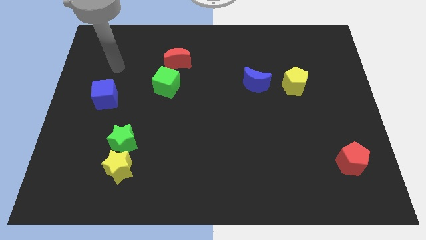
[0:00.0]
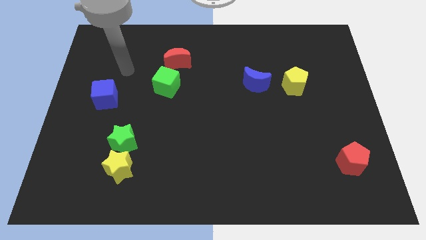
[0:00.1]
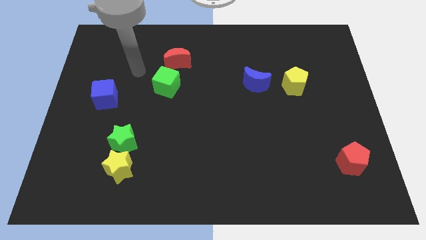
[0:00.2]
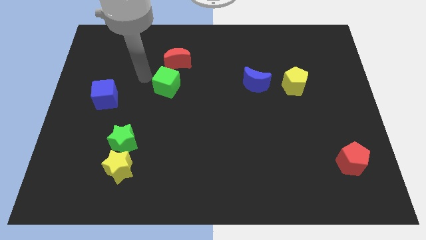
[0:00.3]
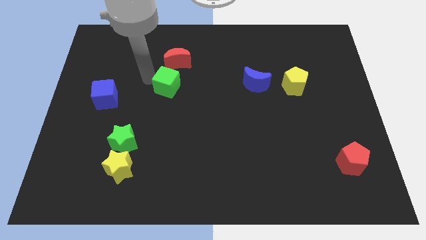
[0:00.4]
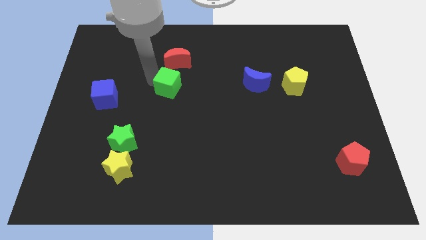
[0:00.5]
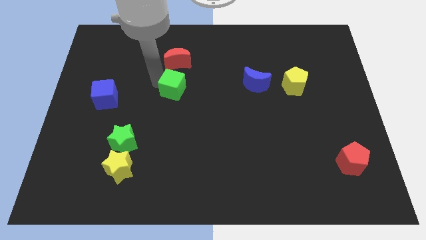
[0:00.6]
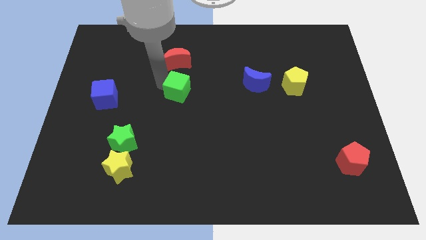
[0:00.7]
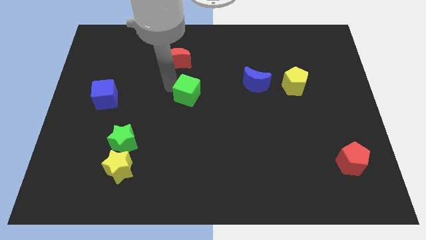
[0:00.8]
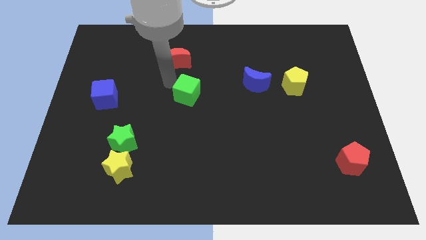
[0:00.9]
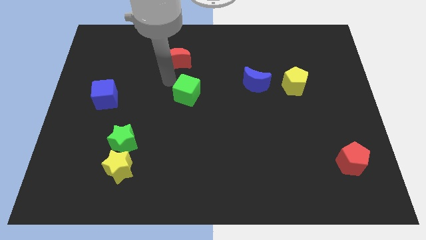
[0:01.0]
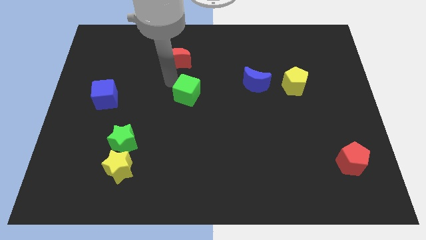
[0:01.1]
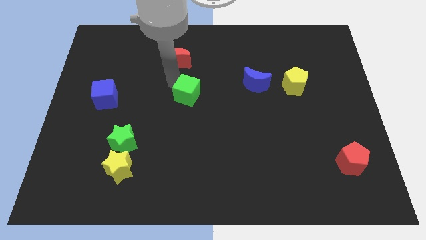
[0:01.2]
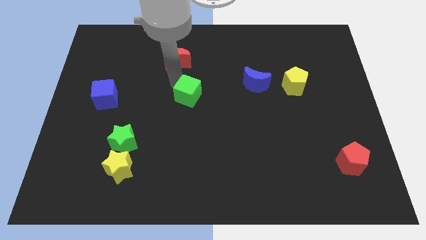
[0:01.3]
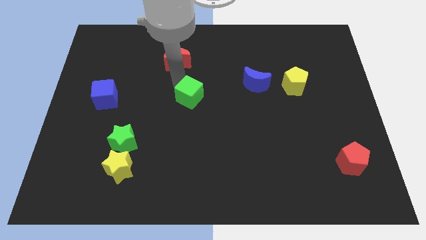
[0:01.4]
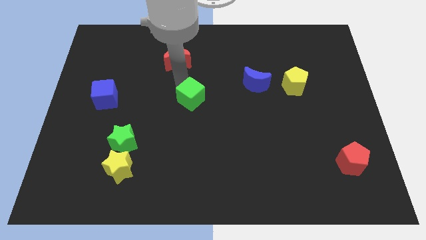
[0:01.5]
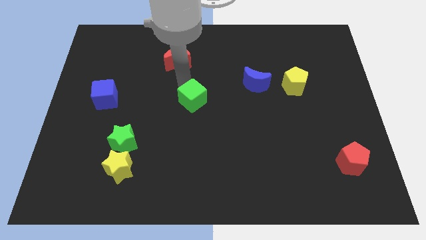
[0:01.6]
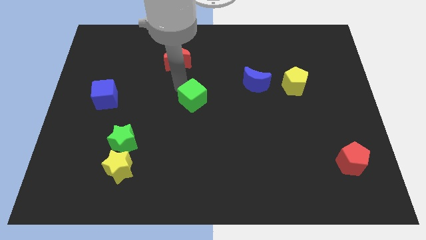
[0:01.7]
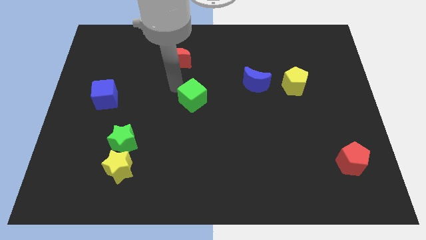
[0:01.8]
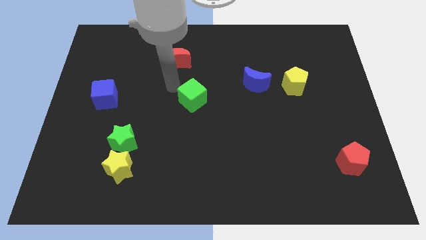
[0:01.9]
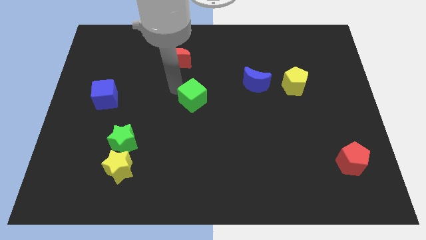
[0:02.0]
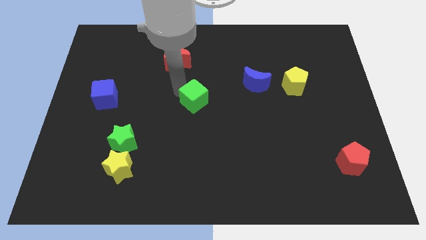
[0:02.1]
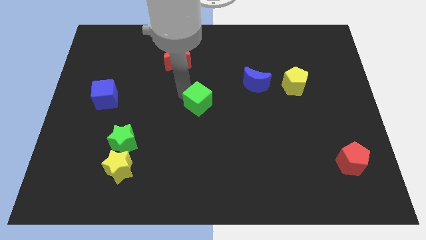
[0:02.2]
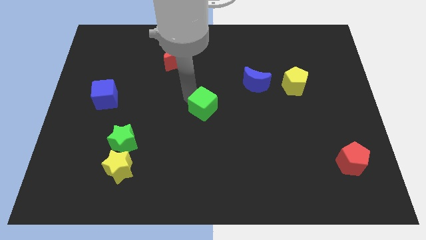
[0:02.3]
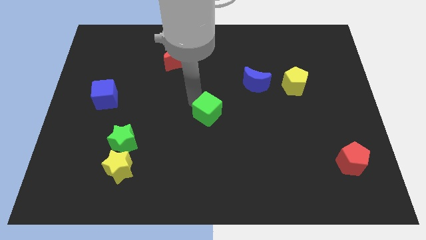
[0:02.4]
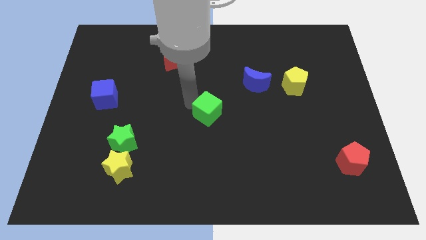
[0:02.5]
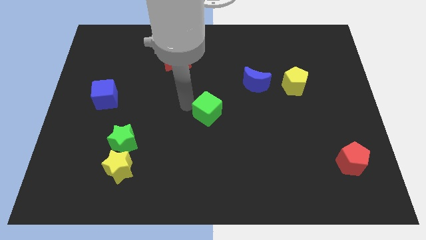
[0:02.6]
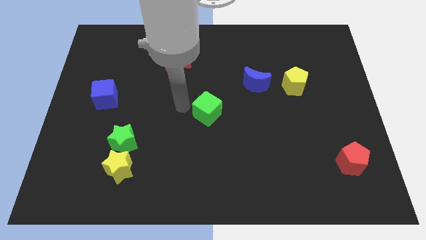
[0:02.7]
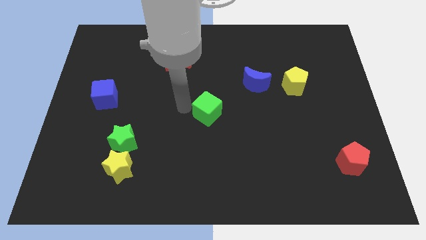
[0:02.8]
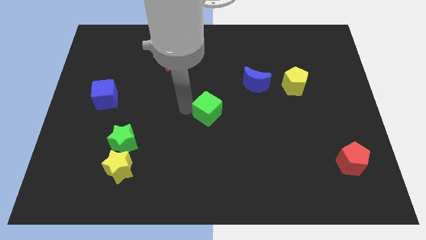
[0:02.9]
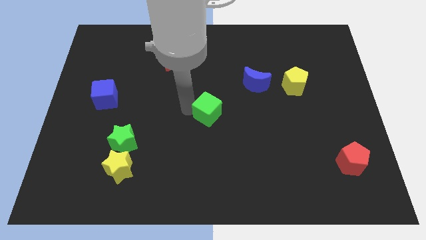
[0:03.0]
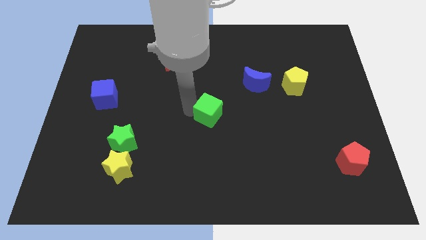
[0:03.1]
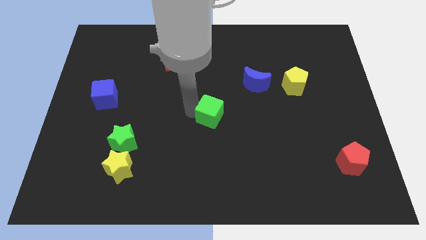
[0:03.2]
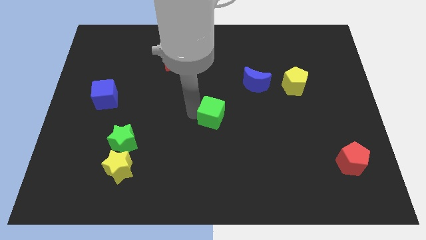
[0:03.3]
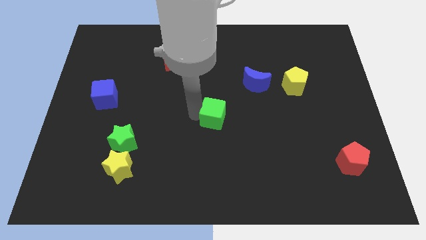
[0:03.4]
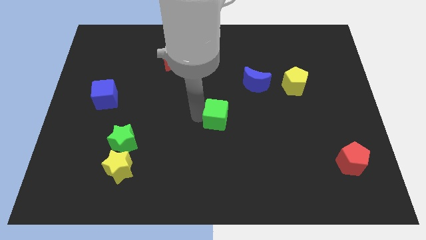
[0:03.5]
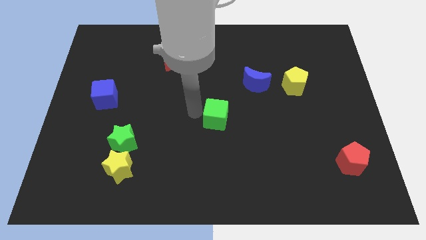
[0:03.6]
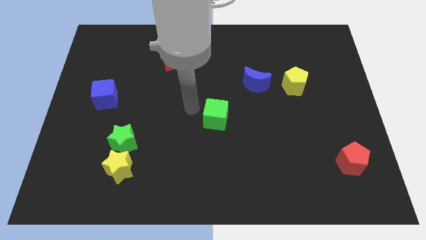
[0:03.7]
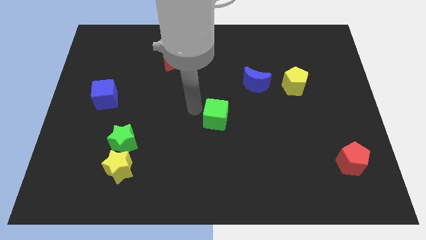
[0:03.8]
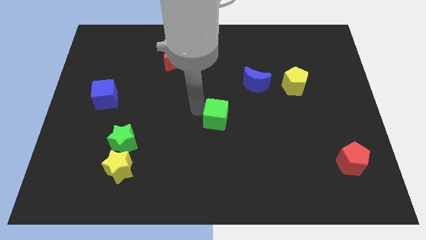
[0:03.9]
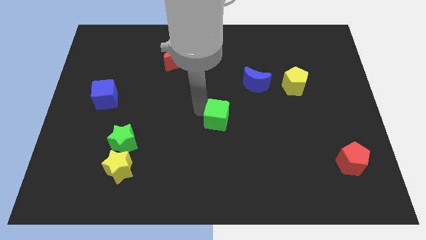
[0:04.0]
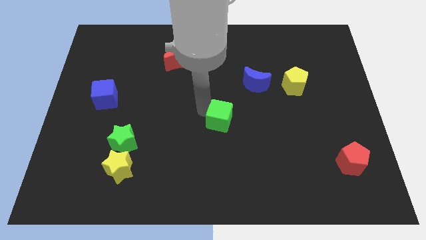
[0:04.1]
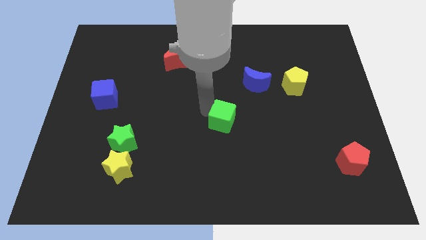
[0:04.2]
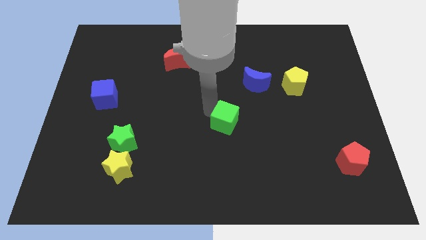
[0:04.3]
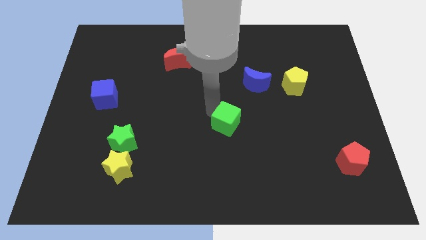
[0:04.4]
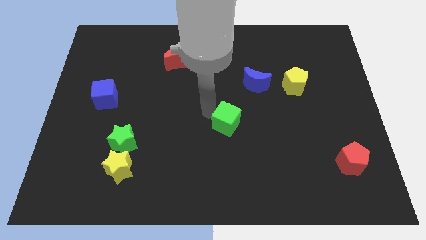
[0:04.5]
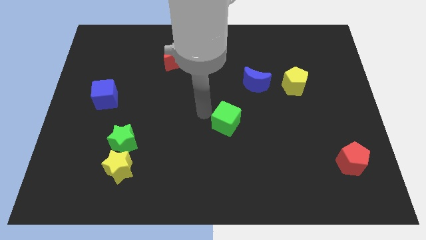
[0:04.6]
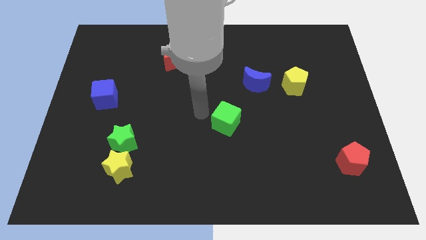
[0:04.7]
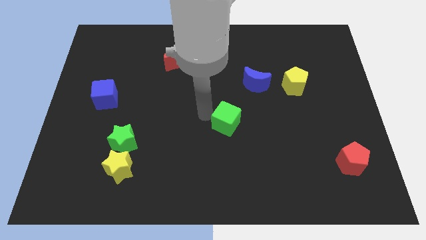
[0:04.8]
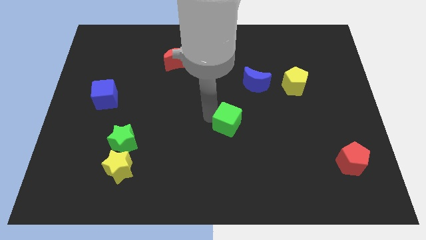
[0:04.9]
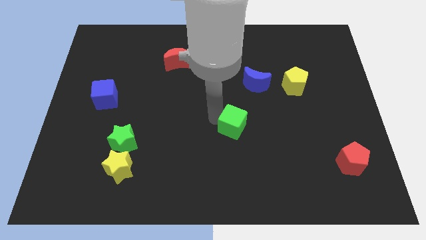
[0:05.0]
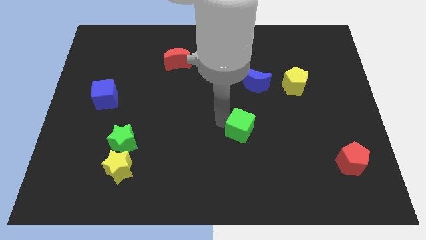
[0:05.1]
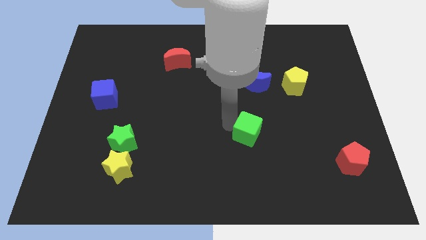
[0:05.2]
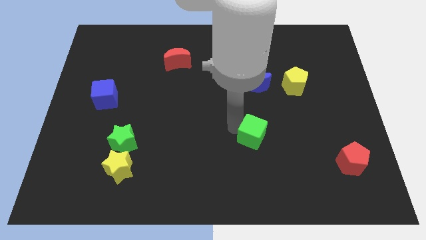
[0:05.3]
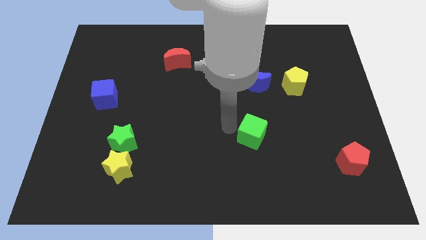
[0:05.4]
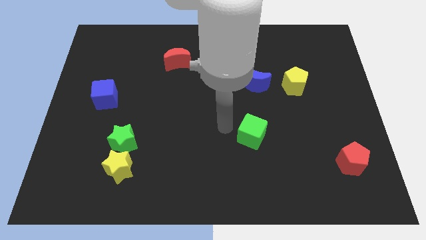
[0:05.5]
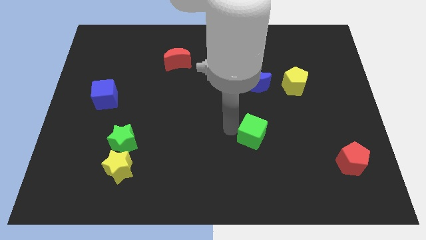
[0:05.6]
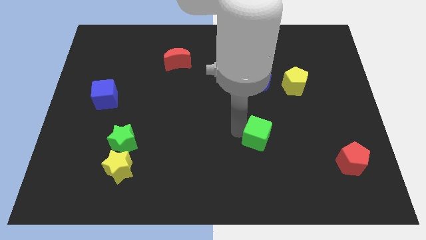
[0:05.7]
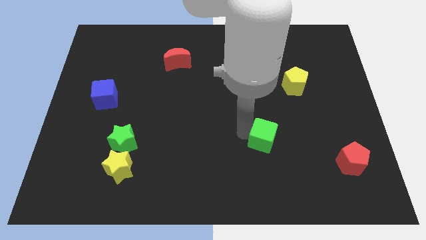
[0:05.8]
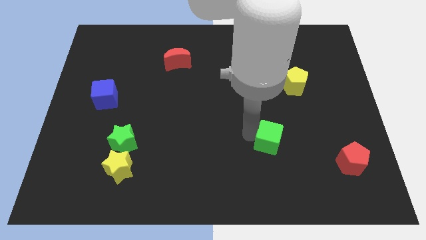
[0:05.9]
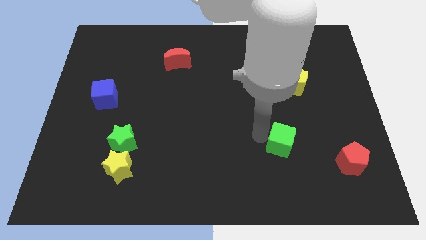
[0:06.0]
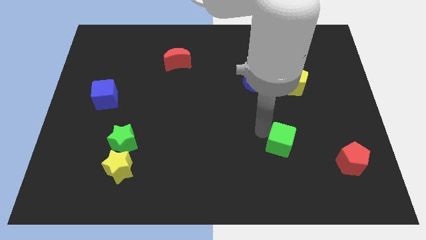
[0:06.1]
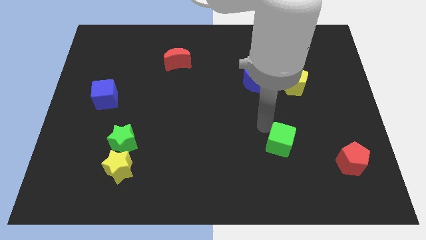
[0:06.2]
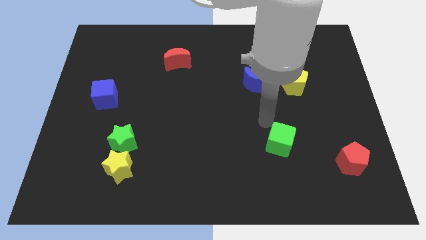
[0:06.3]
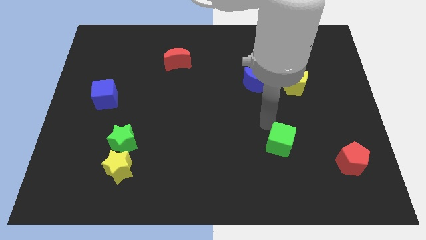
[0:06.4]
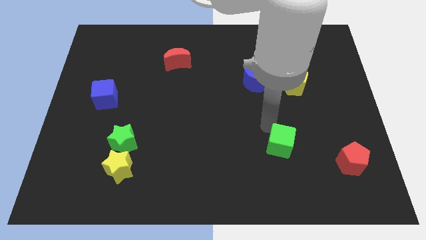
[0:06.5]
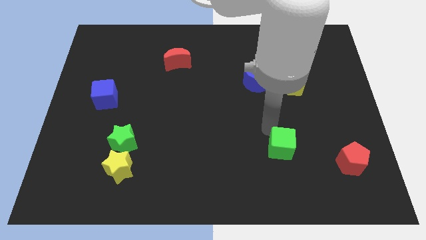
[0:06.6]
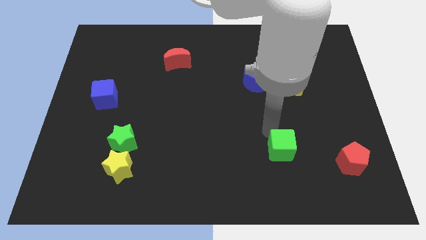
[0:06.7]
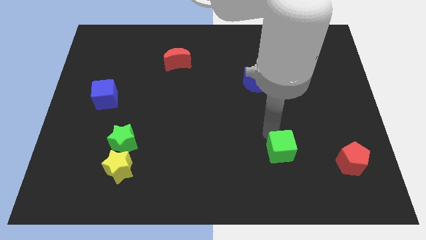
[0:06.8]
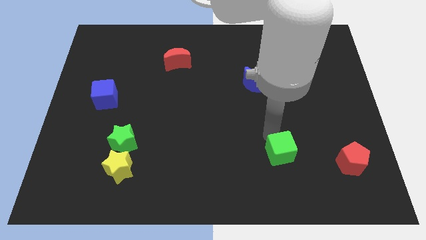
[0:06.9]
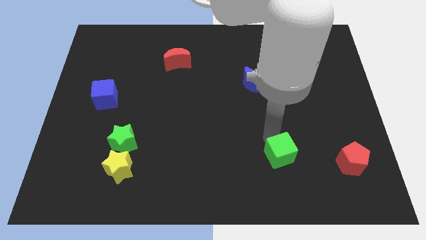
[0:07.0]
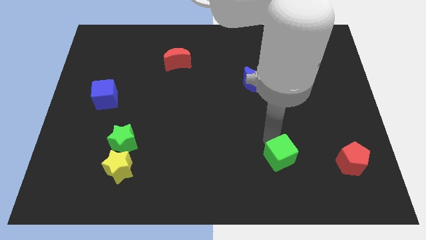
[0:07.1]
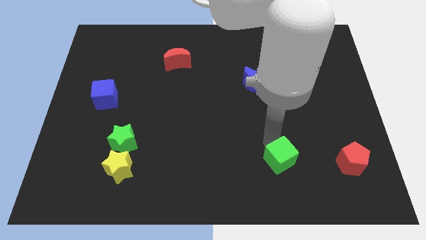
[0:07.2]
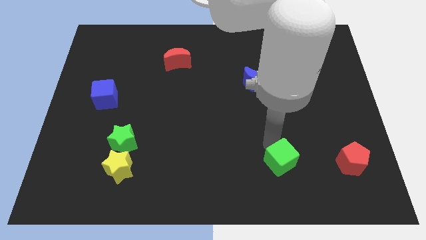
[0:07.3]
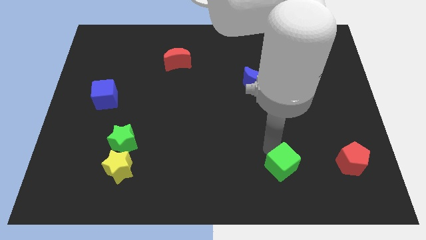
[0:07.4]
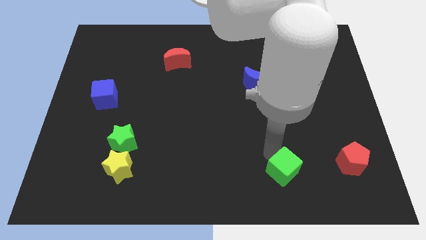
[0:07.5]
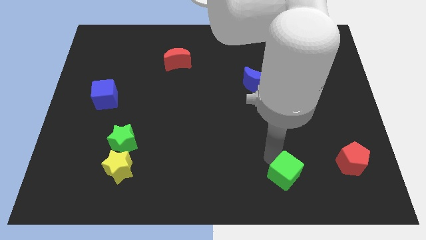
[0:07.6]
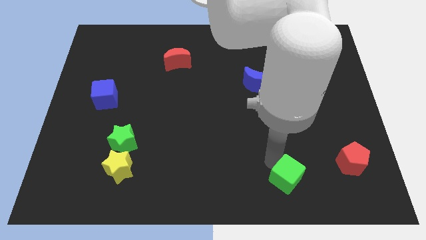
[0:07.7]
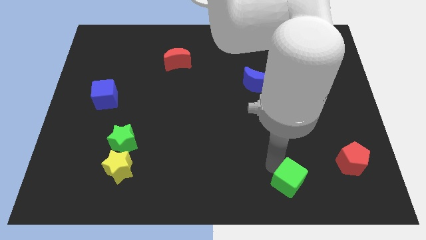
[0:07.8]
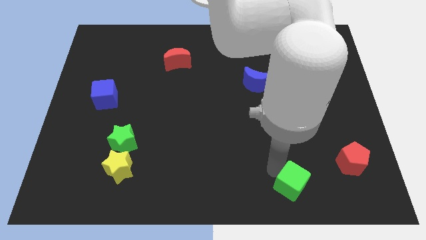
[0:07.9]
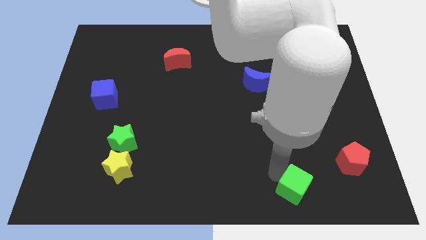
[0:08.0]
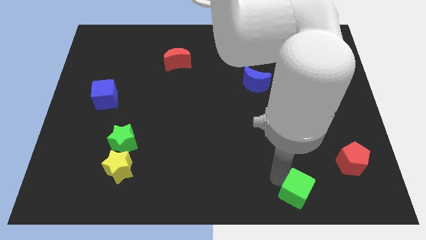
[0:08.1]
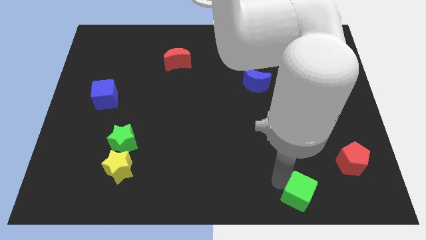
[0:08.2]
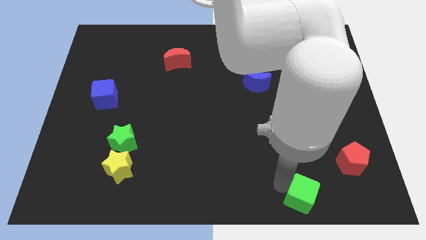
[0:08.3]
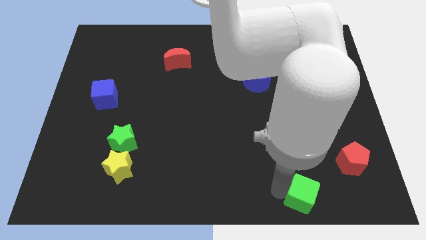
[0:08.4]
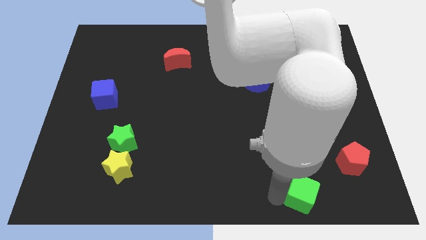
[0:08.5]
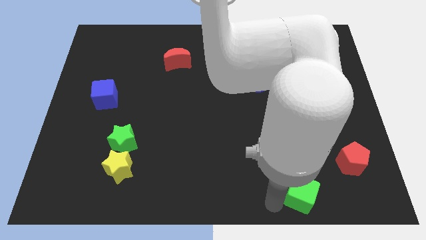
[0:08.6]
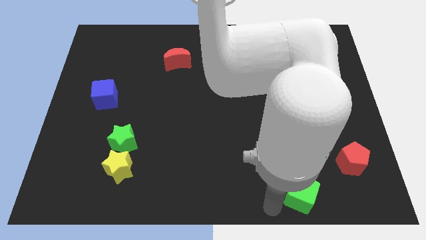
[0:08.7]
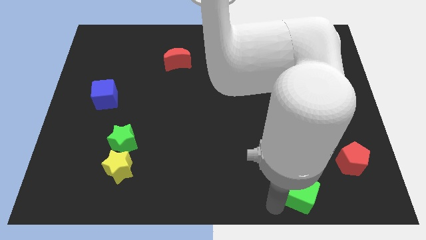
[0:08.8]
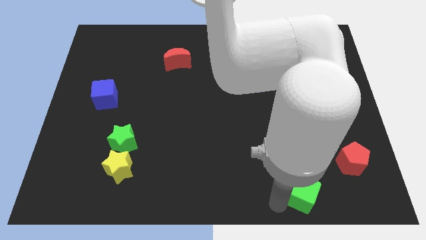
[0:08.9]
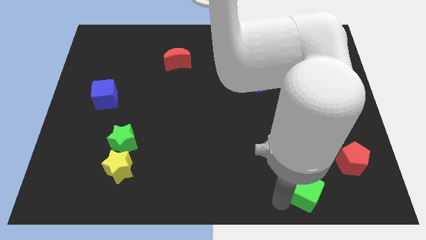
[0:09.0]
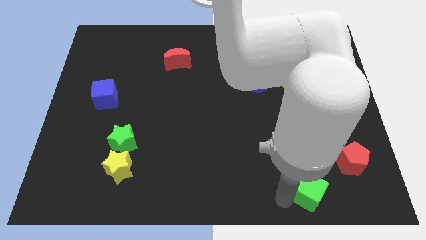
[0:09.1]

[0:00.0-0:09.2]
slide the green cube to the bottom left of the red pentagon
